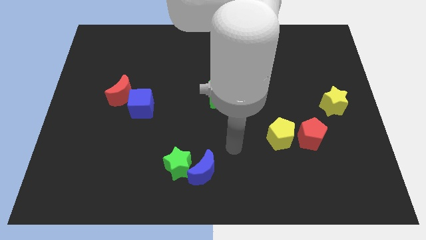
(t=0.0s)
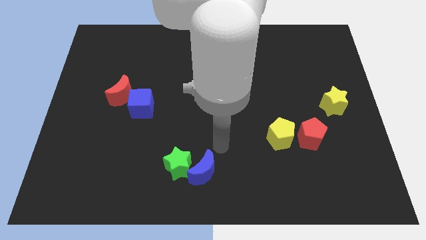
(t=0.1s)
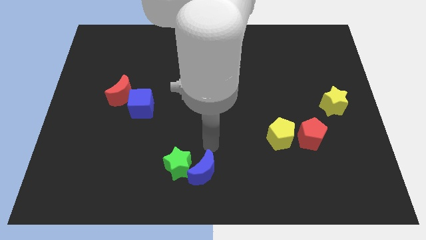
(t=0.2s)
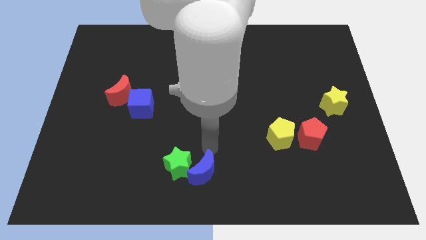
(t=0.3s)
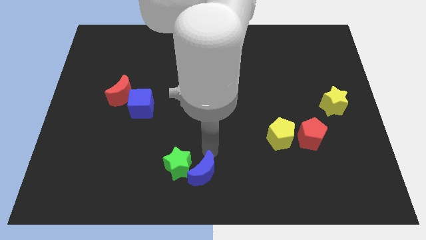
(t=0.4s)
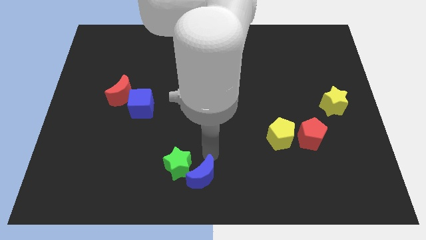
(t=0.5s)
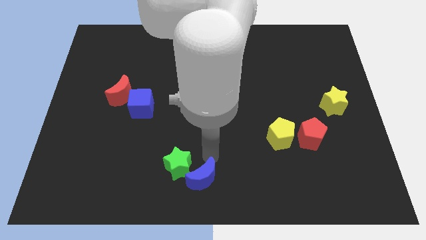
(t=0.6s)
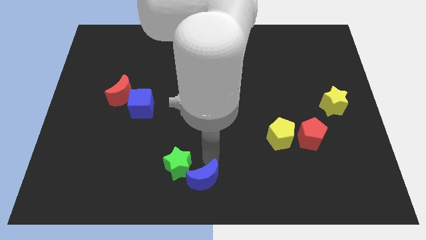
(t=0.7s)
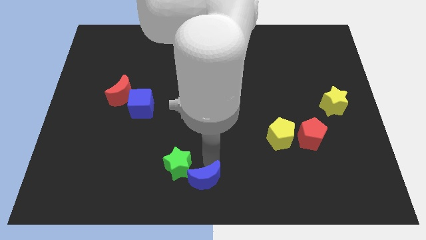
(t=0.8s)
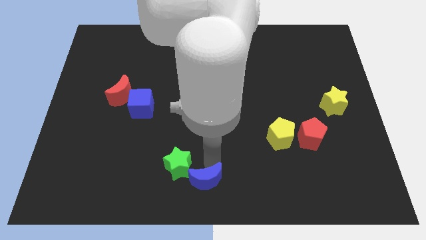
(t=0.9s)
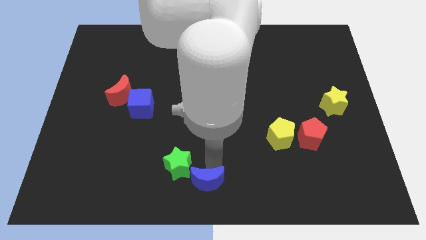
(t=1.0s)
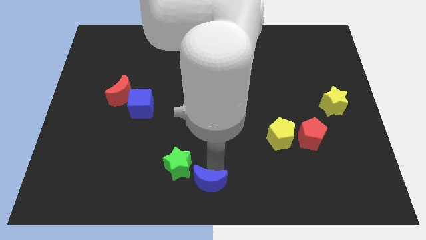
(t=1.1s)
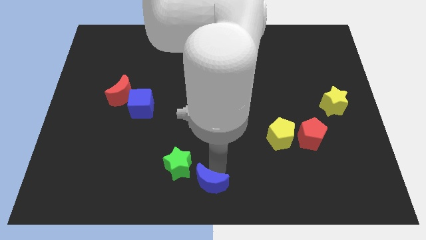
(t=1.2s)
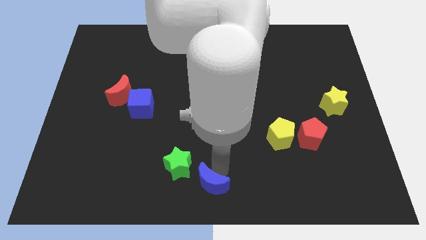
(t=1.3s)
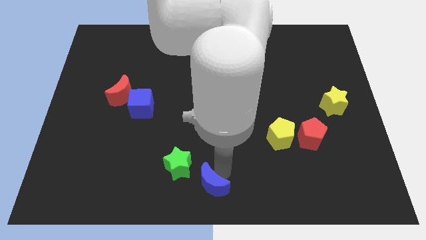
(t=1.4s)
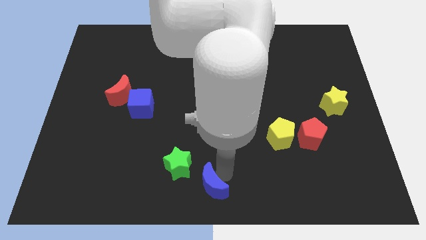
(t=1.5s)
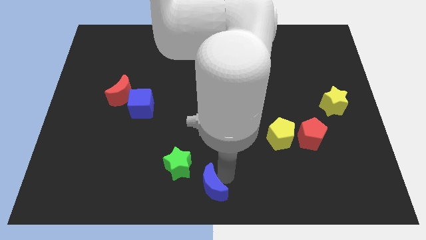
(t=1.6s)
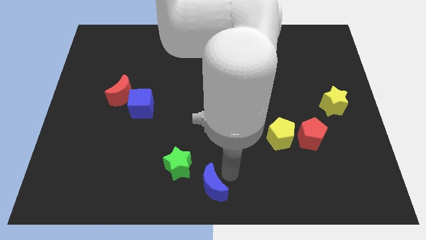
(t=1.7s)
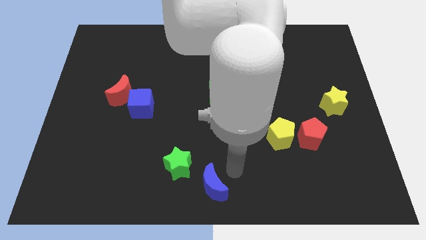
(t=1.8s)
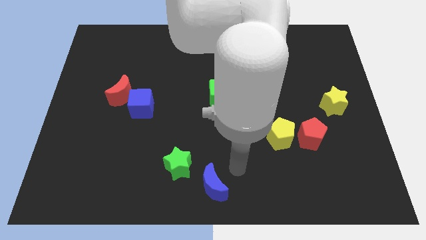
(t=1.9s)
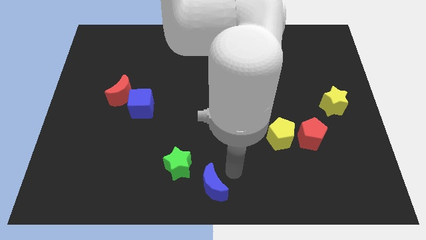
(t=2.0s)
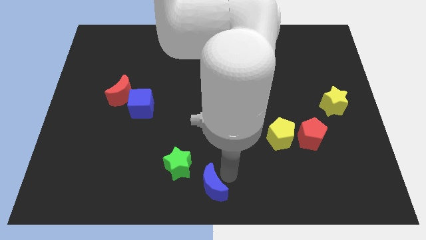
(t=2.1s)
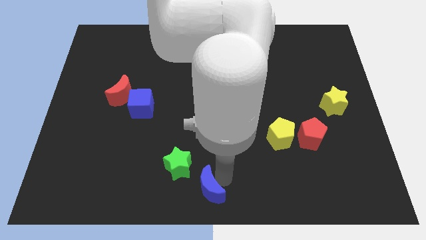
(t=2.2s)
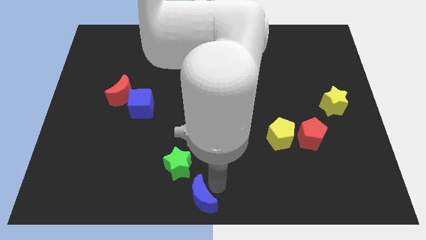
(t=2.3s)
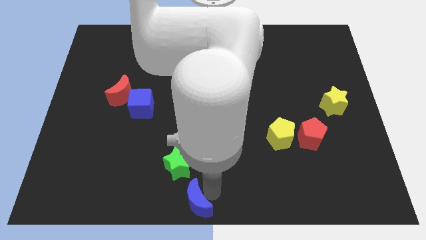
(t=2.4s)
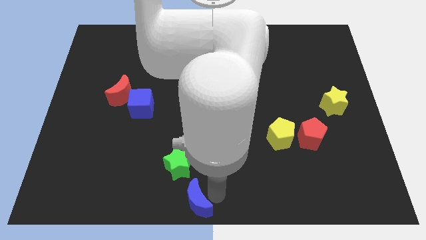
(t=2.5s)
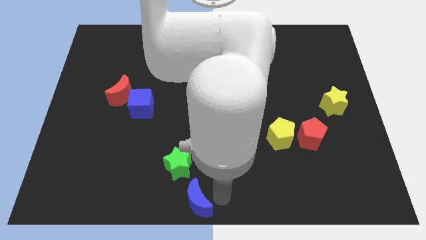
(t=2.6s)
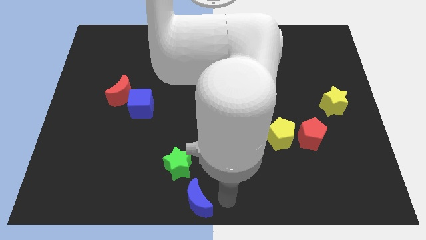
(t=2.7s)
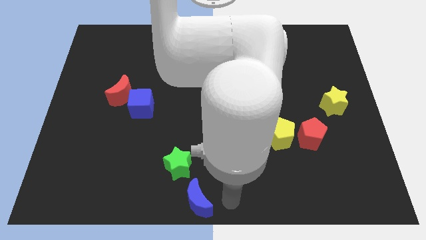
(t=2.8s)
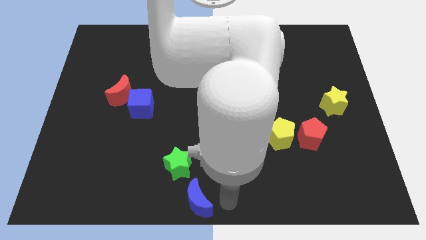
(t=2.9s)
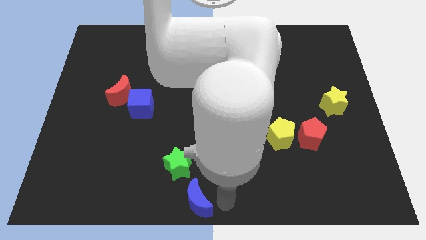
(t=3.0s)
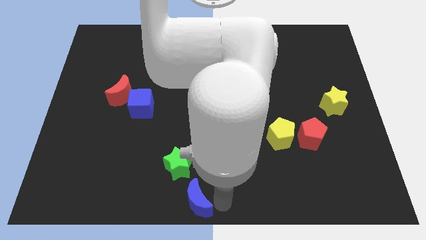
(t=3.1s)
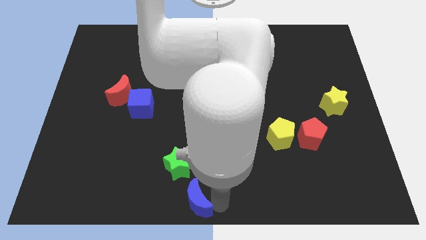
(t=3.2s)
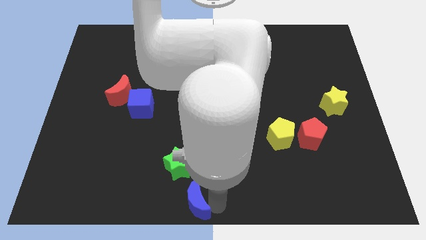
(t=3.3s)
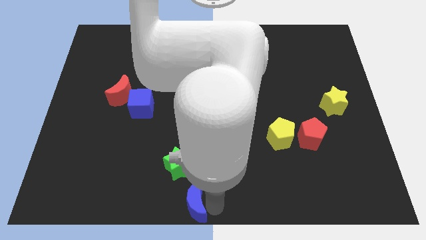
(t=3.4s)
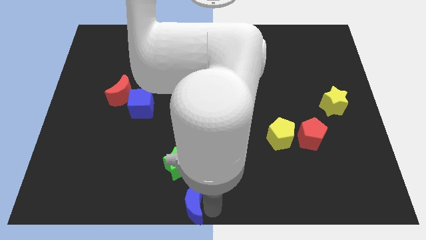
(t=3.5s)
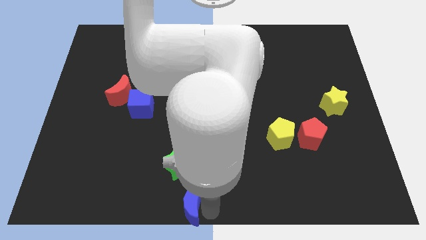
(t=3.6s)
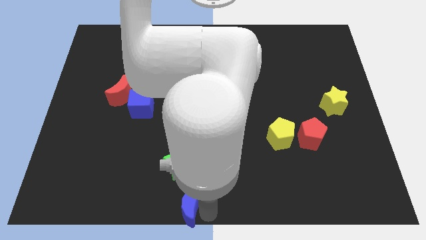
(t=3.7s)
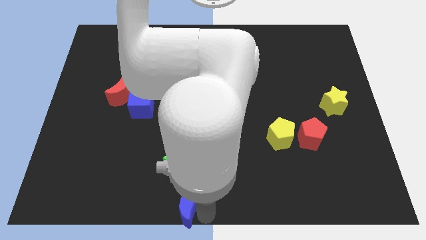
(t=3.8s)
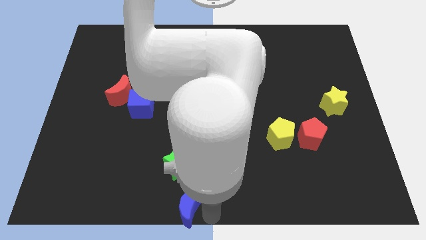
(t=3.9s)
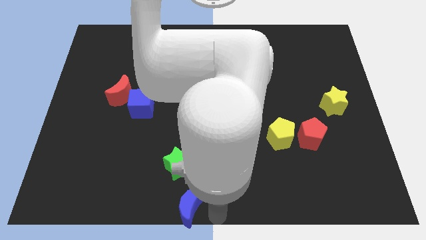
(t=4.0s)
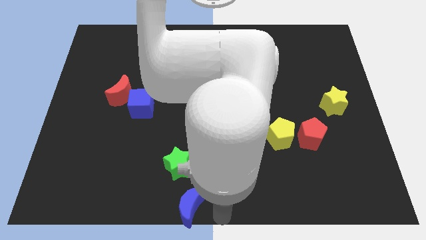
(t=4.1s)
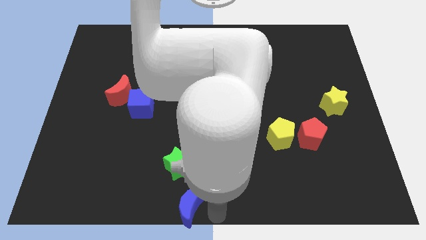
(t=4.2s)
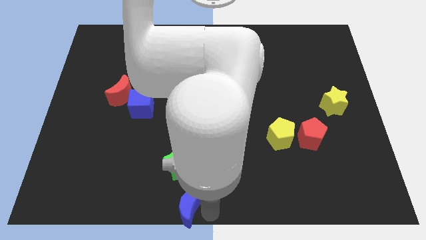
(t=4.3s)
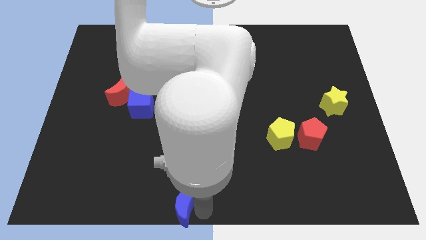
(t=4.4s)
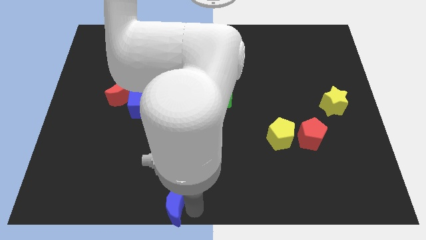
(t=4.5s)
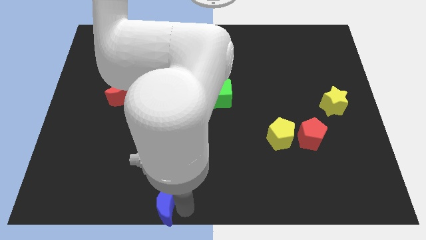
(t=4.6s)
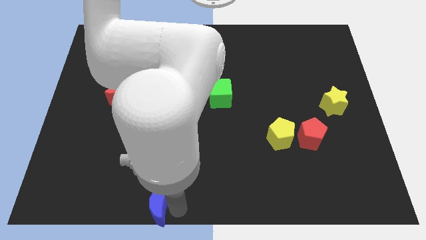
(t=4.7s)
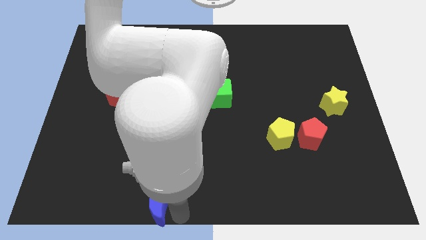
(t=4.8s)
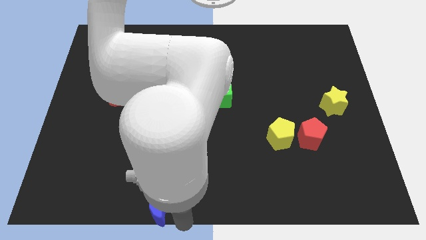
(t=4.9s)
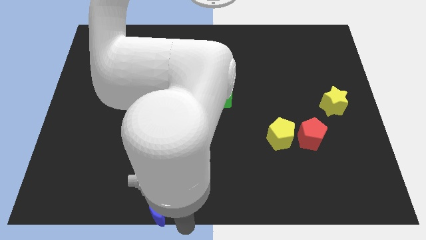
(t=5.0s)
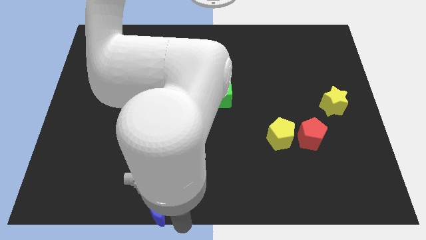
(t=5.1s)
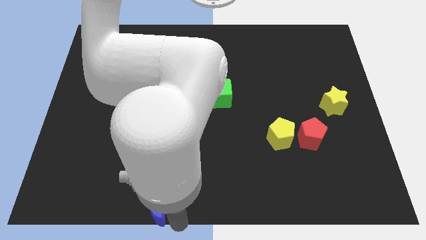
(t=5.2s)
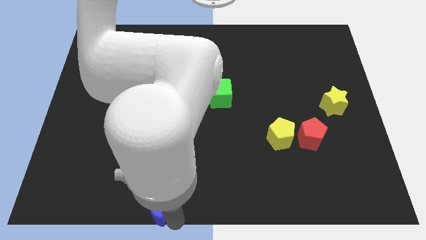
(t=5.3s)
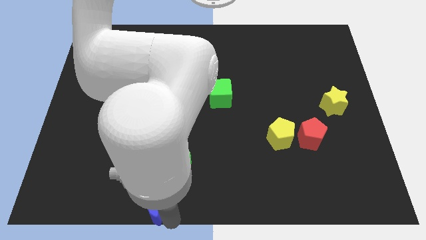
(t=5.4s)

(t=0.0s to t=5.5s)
push the blue moon to the left slightly

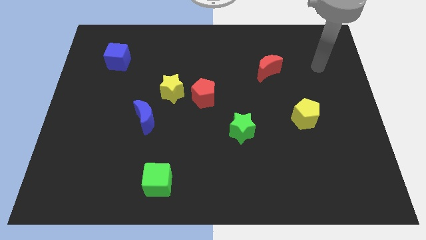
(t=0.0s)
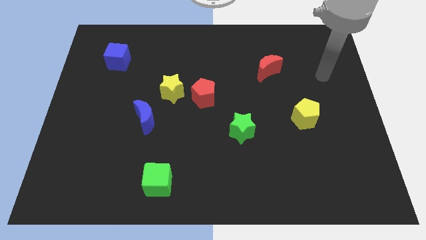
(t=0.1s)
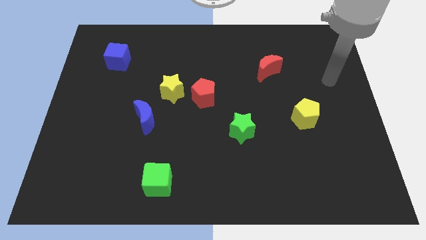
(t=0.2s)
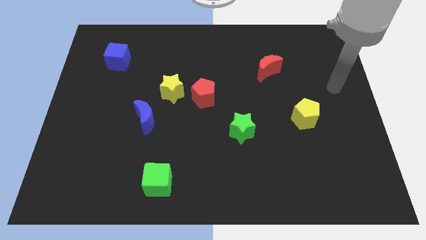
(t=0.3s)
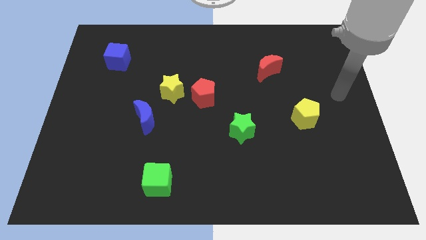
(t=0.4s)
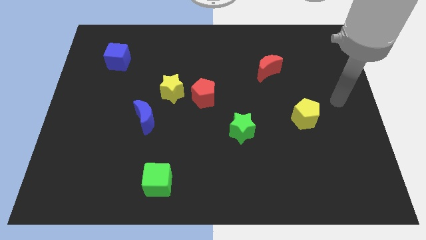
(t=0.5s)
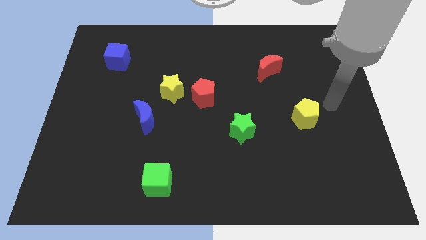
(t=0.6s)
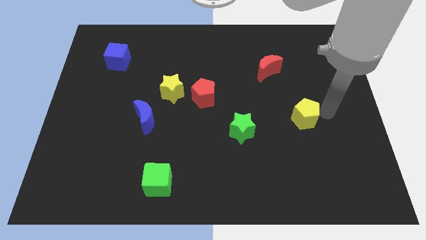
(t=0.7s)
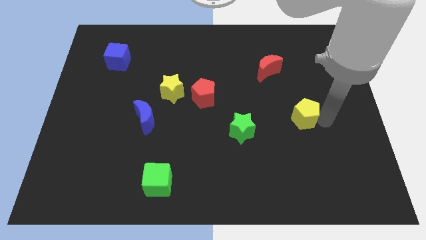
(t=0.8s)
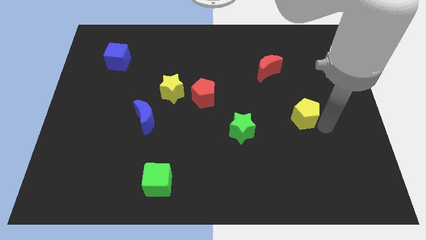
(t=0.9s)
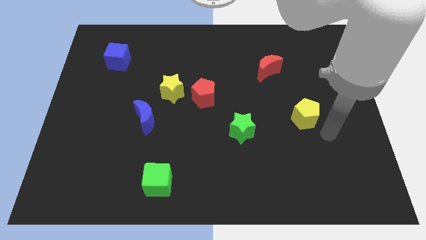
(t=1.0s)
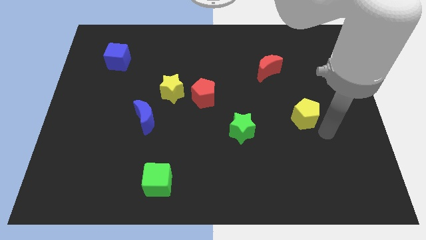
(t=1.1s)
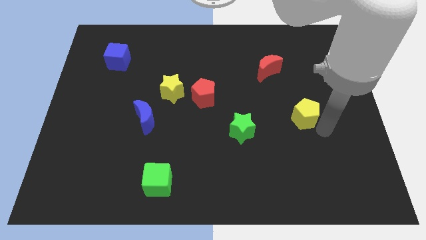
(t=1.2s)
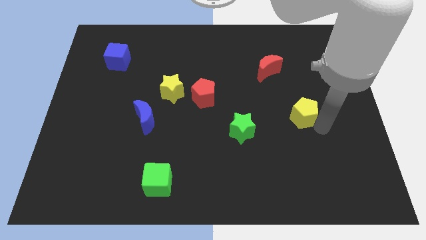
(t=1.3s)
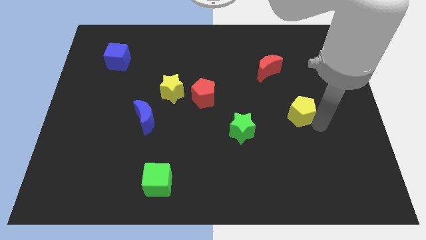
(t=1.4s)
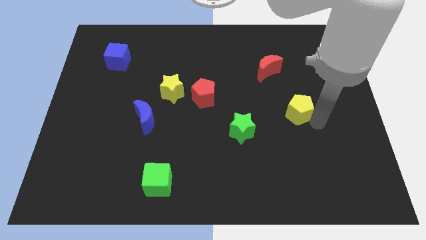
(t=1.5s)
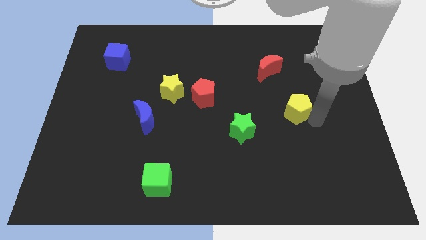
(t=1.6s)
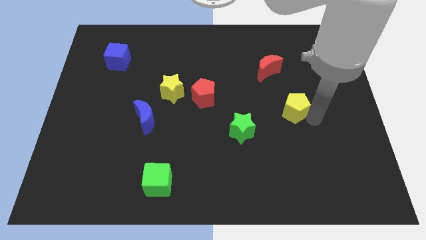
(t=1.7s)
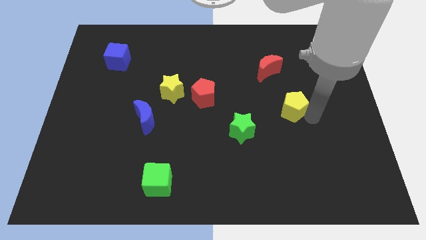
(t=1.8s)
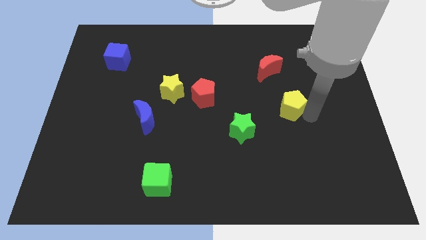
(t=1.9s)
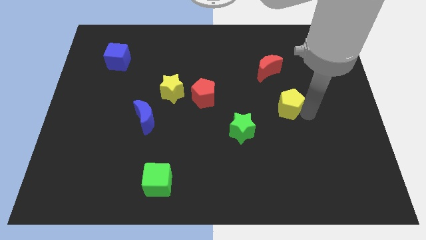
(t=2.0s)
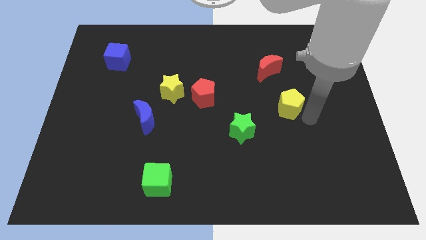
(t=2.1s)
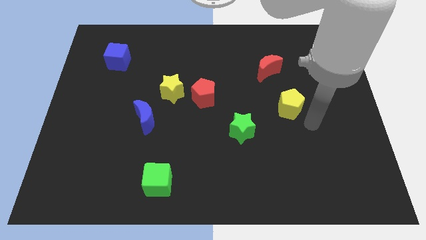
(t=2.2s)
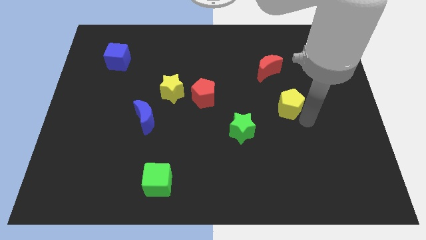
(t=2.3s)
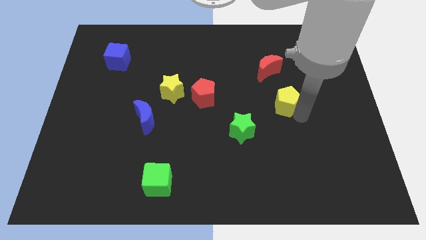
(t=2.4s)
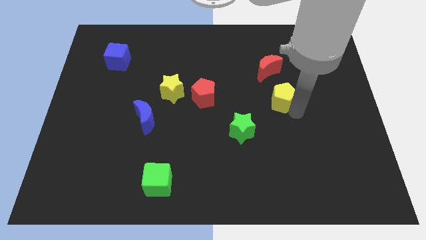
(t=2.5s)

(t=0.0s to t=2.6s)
push the yellow pentagon diagonally upwards and to the left a little bit
